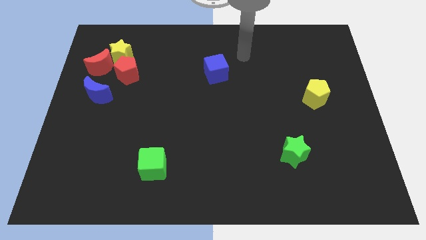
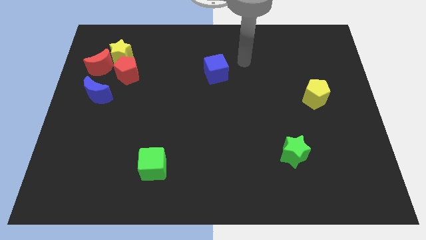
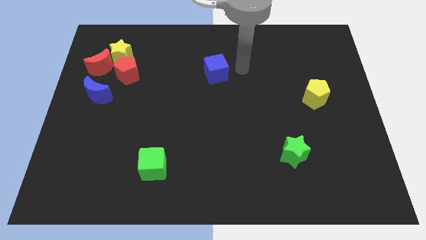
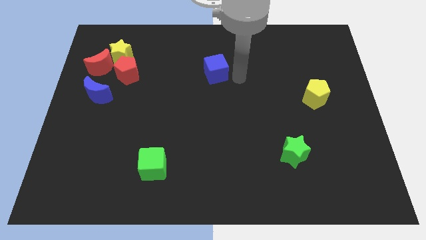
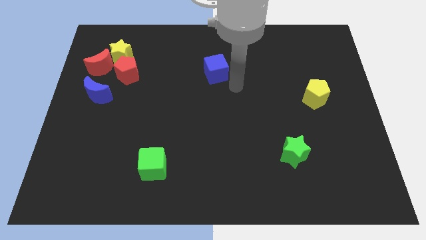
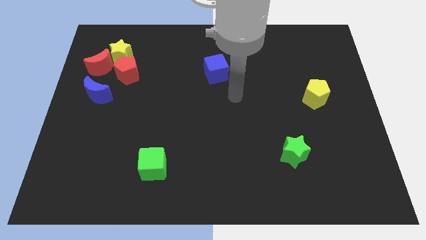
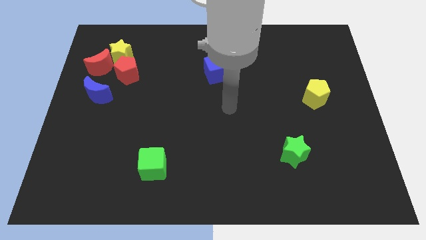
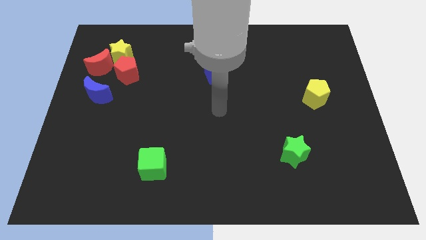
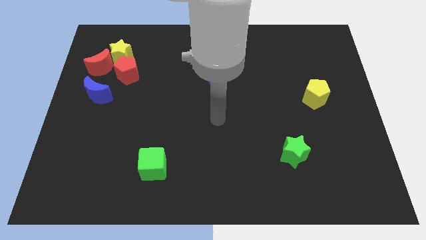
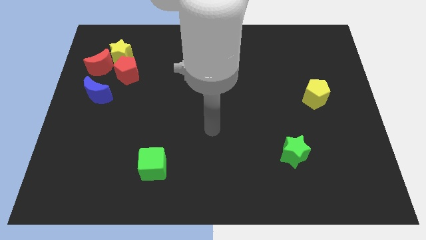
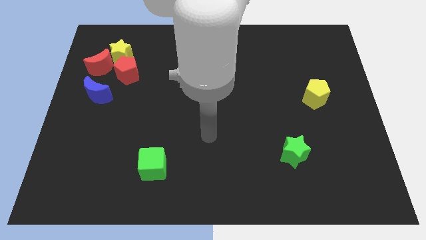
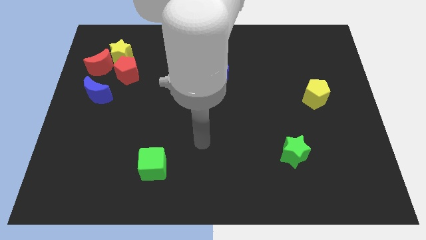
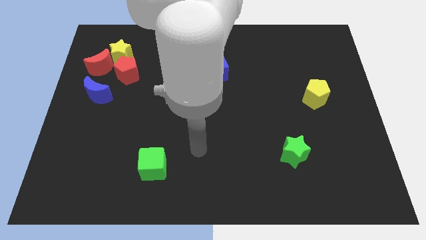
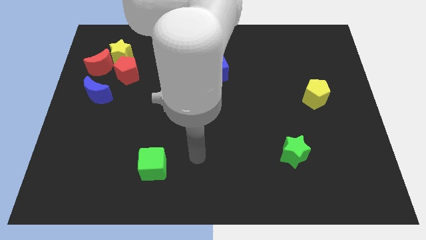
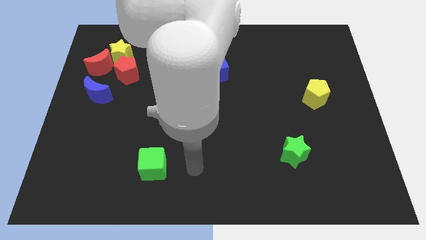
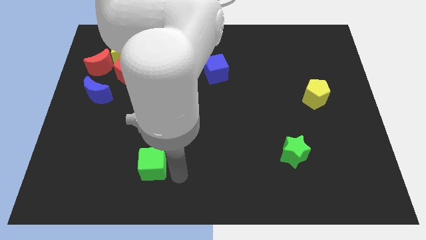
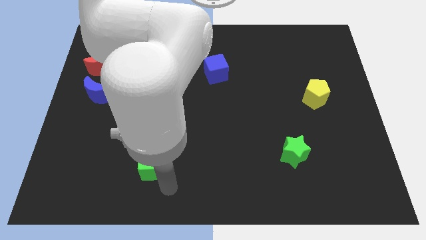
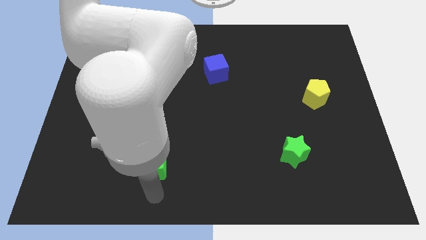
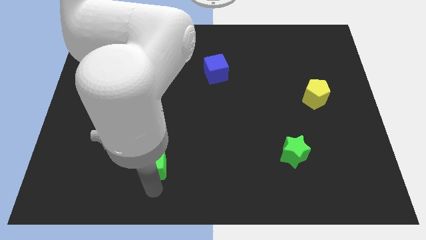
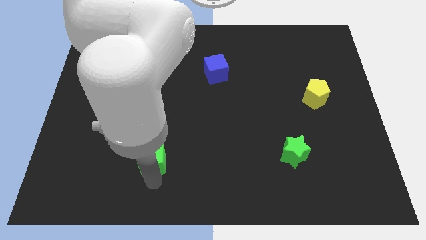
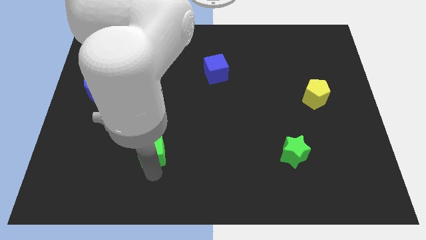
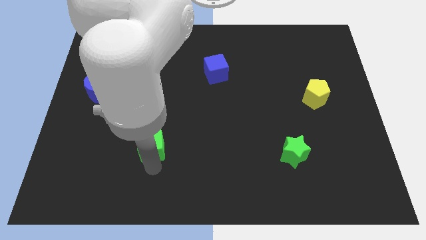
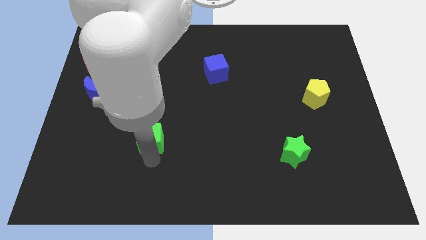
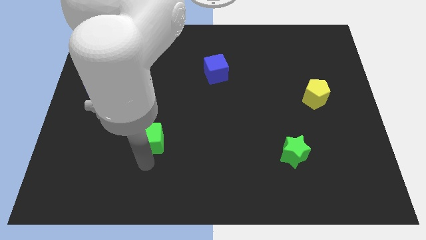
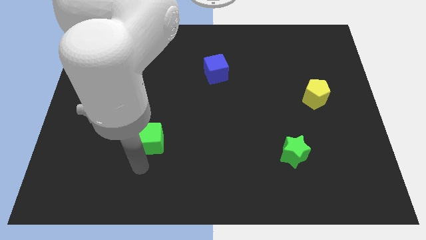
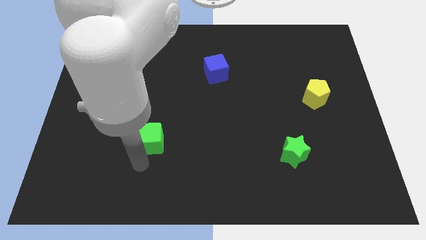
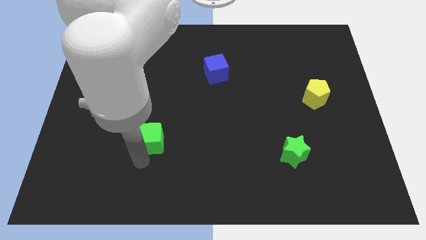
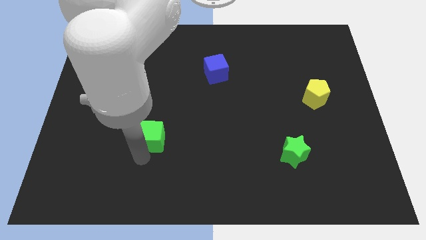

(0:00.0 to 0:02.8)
move the green cube a bit up

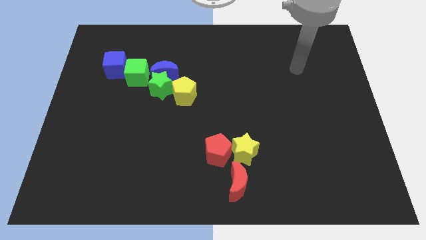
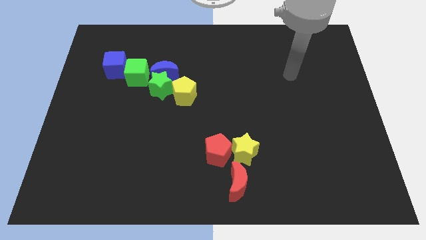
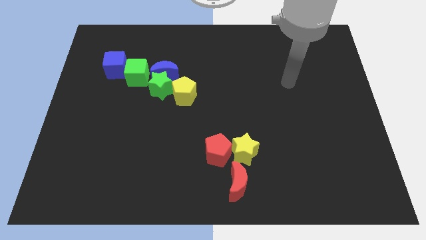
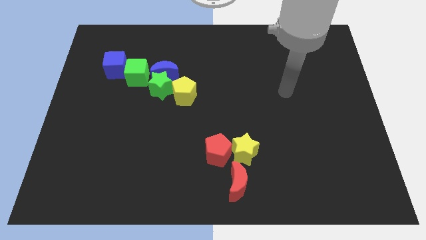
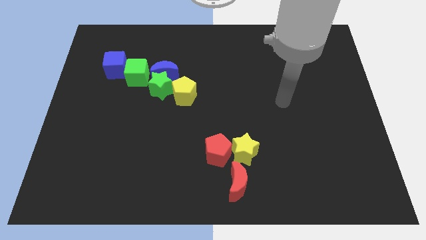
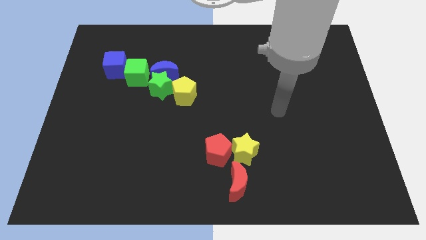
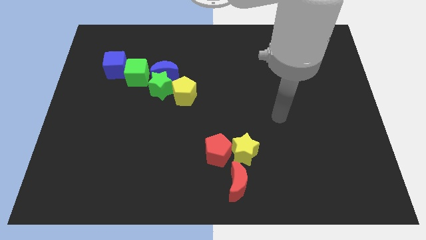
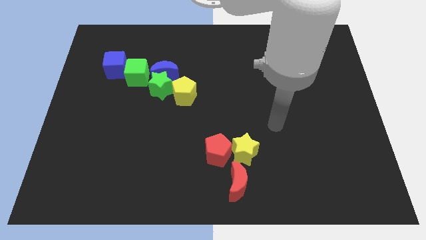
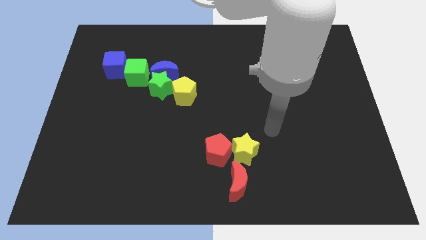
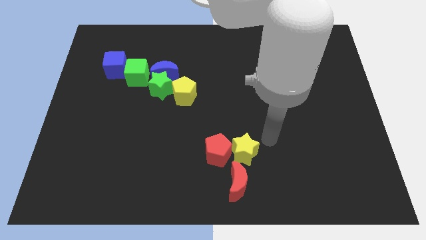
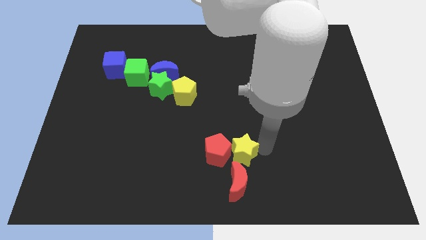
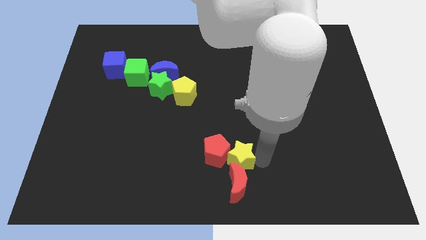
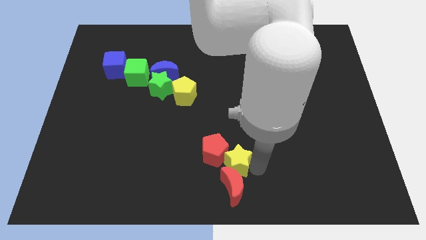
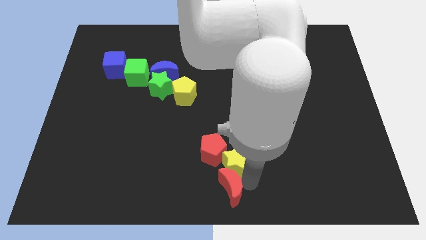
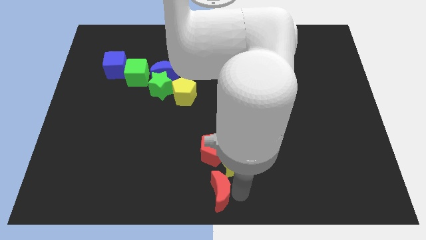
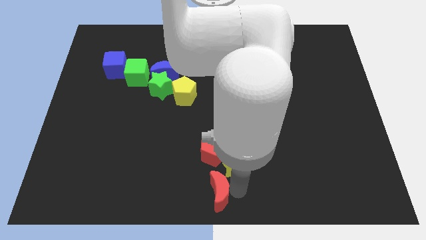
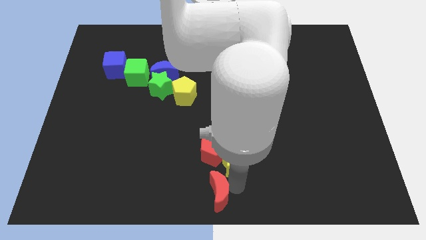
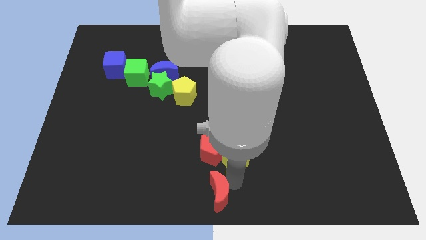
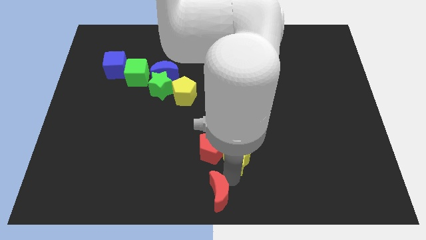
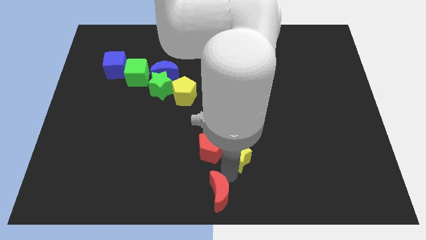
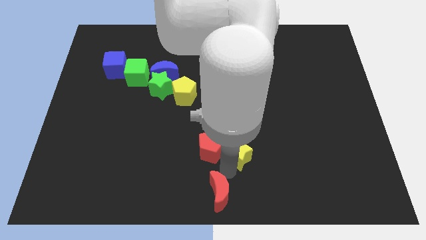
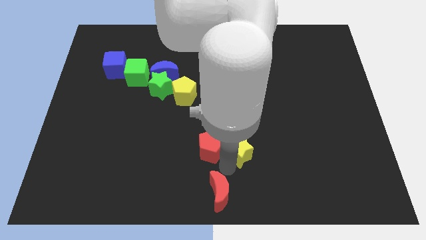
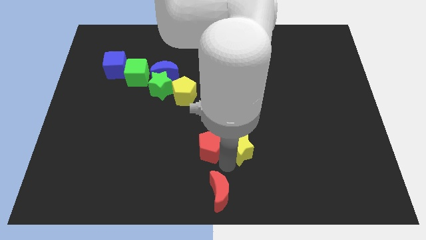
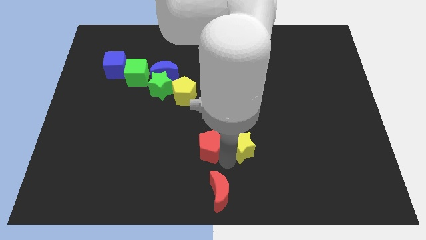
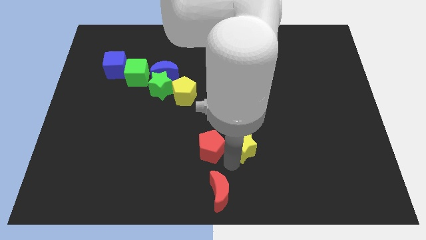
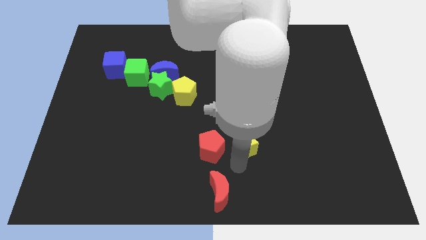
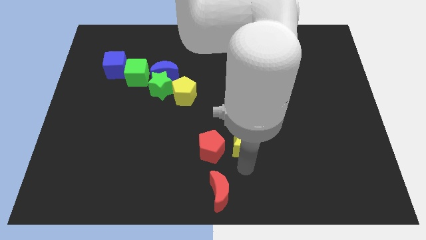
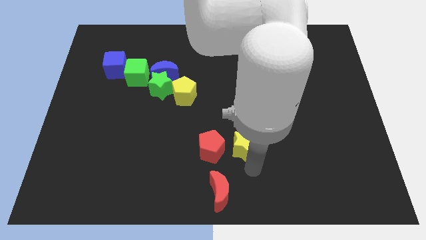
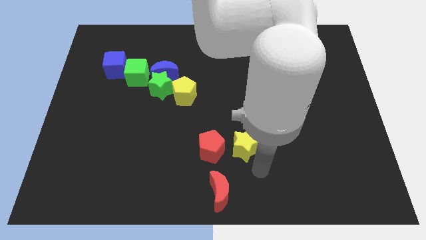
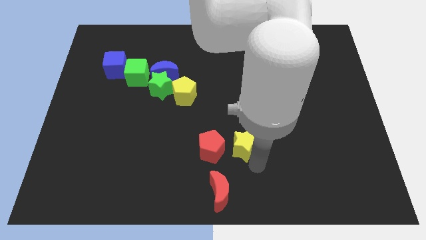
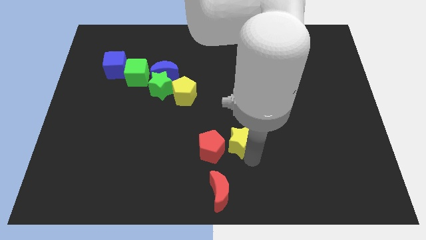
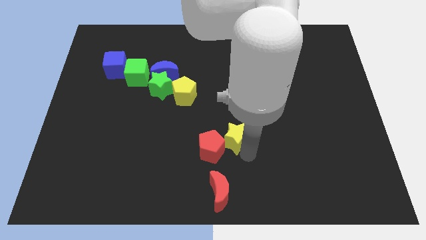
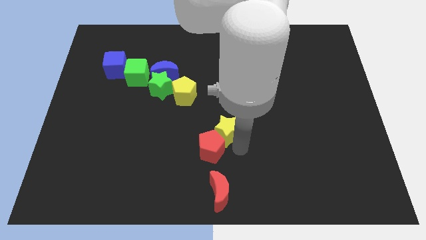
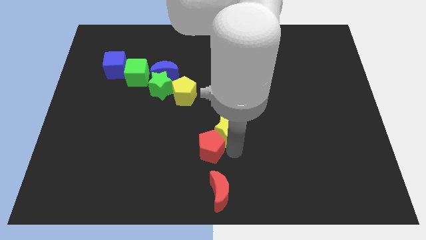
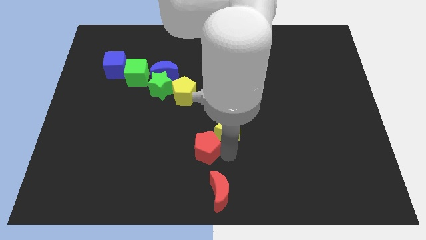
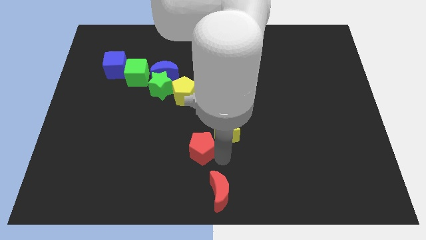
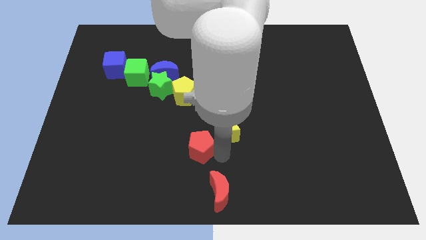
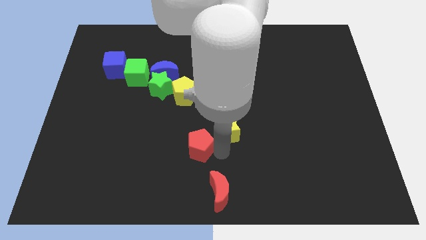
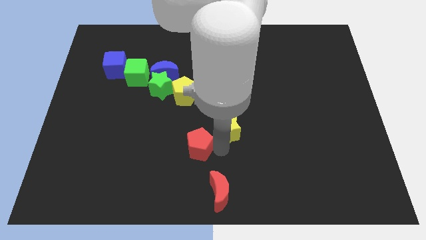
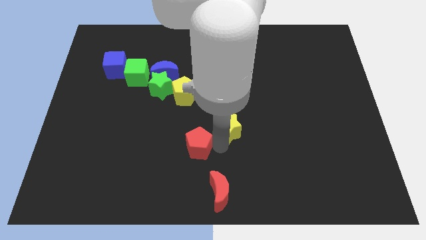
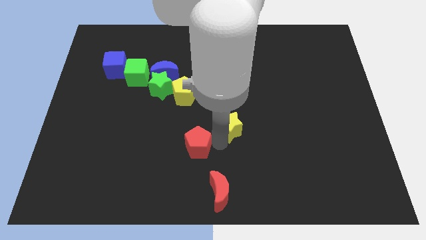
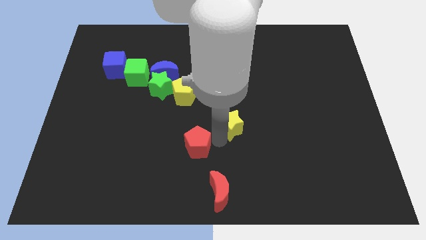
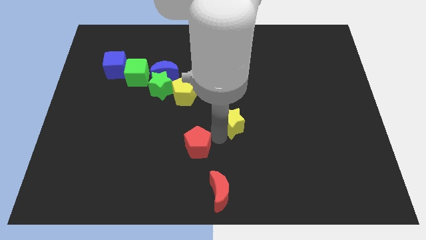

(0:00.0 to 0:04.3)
move the yellow star upwards a bit

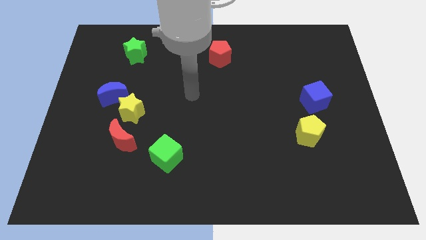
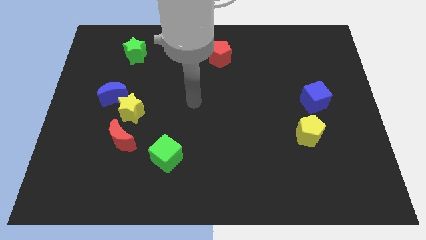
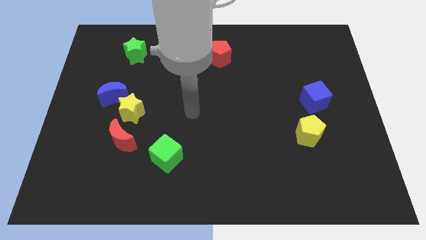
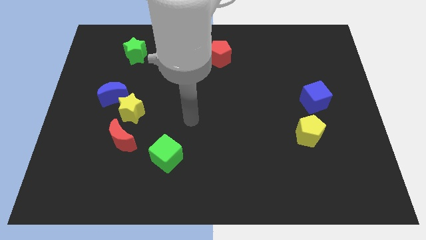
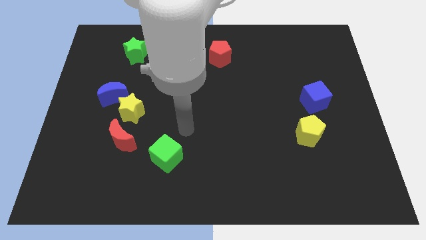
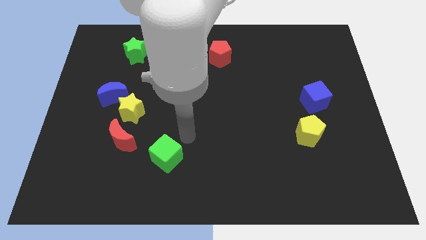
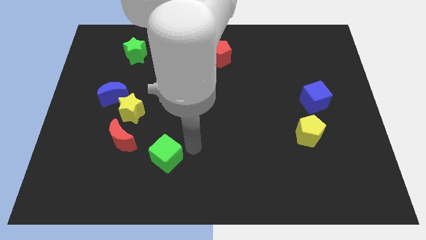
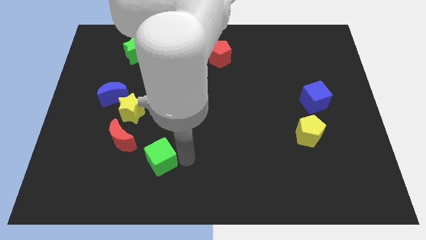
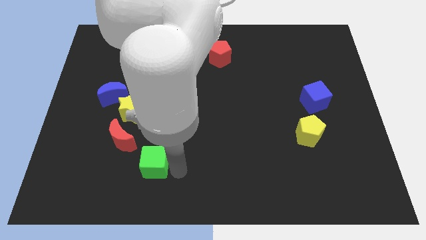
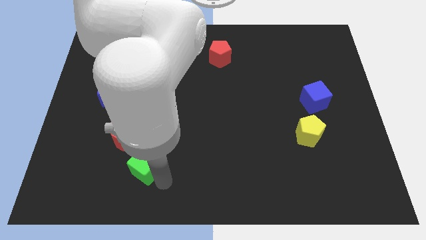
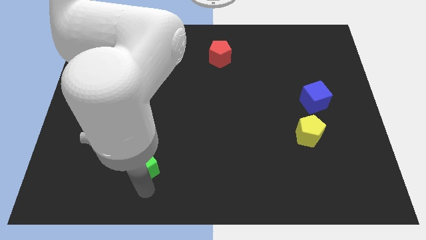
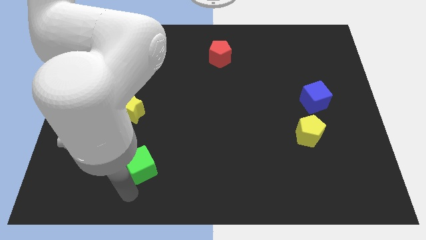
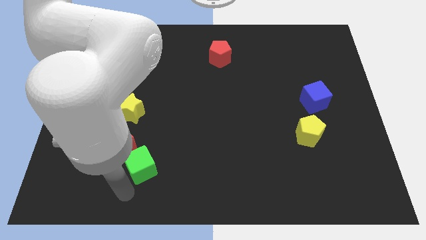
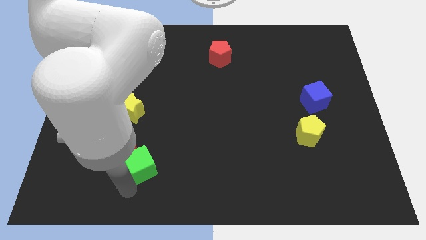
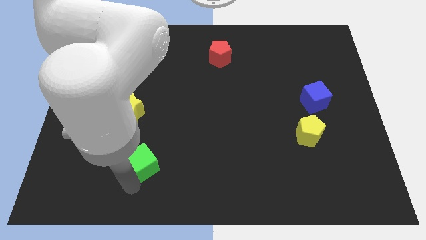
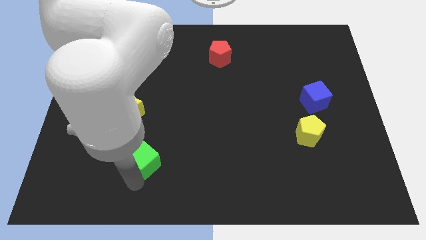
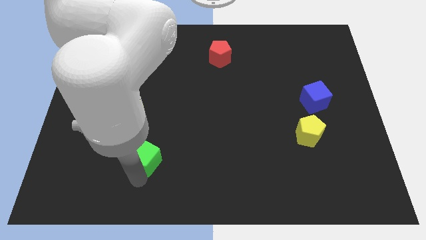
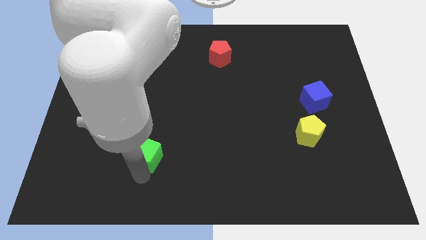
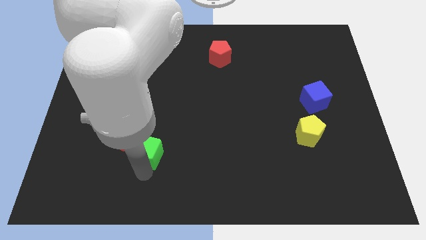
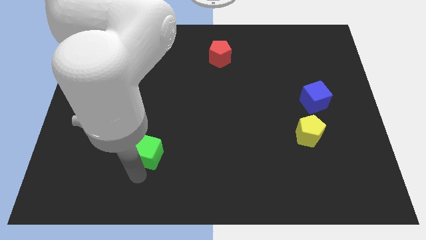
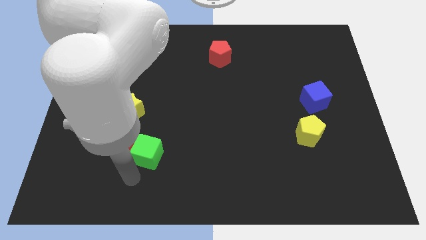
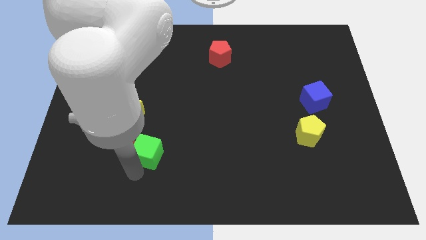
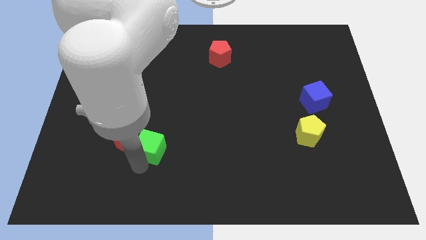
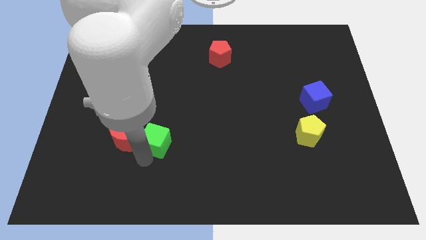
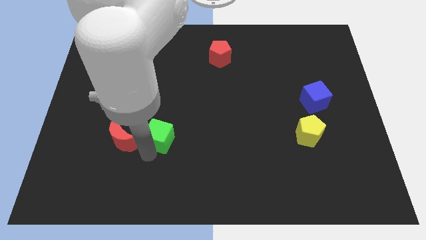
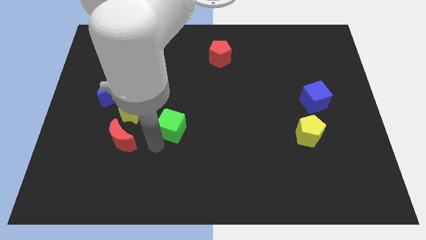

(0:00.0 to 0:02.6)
move the green cube upwards a bit
